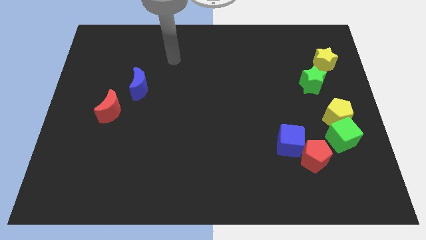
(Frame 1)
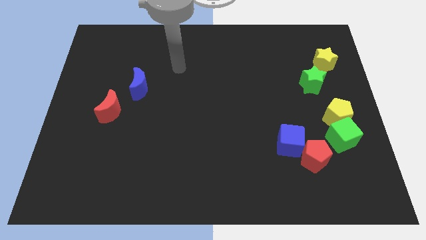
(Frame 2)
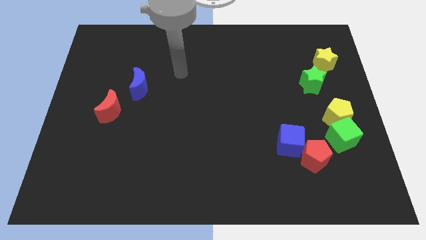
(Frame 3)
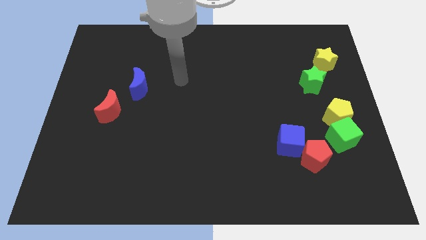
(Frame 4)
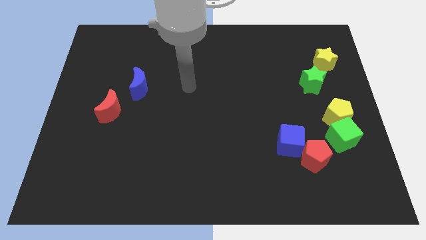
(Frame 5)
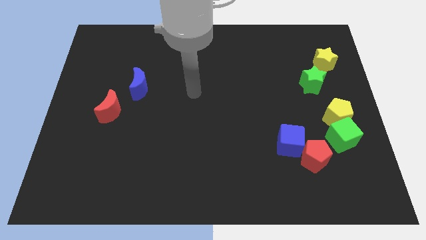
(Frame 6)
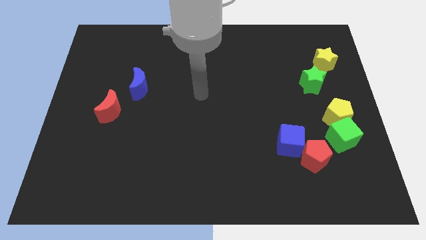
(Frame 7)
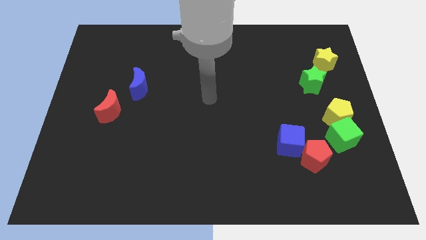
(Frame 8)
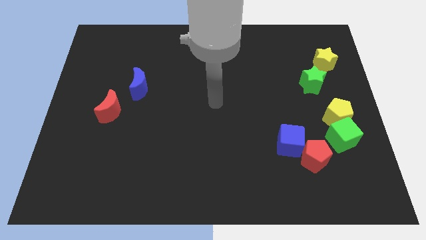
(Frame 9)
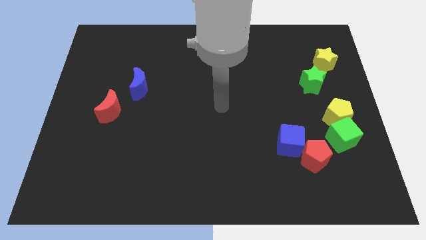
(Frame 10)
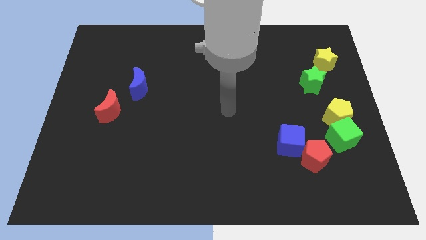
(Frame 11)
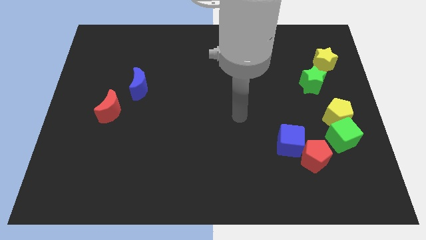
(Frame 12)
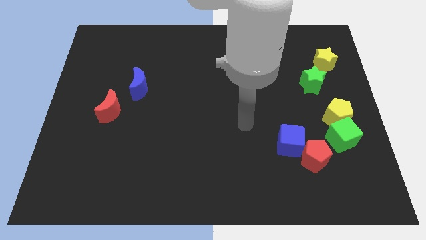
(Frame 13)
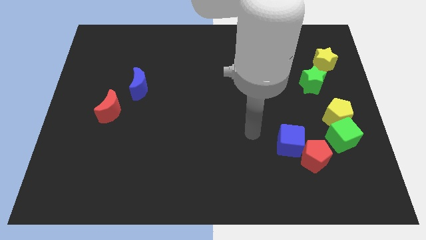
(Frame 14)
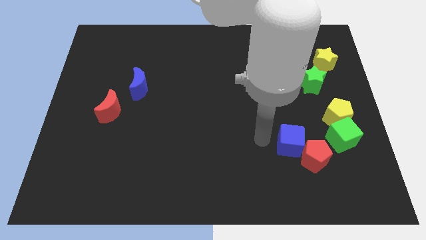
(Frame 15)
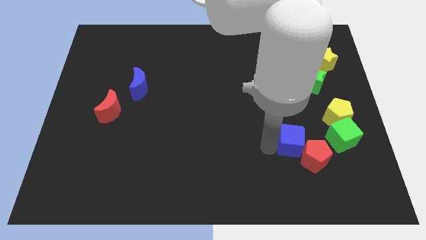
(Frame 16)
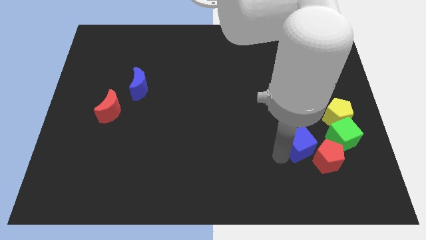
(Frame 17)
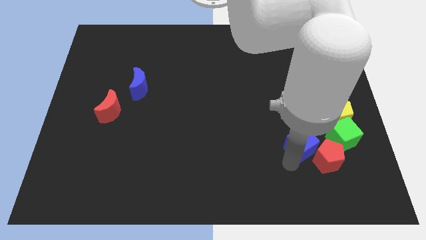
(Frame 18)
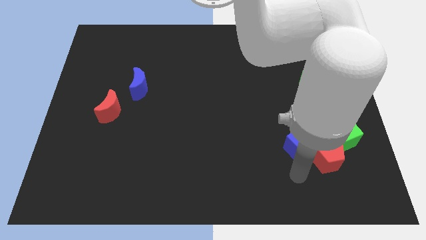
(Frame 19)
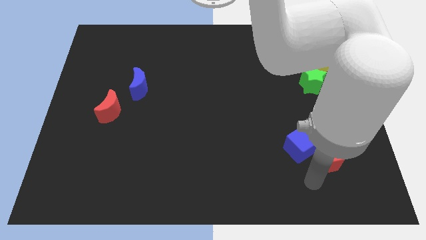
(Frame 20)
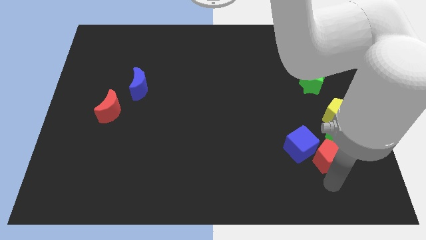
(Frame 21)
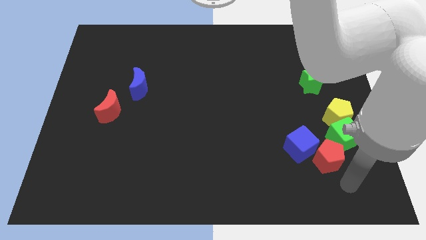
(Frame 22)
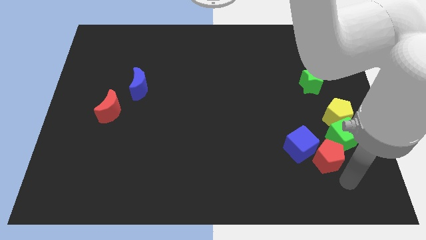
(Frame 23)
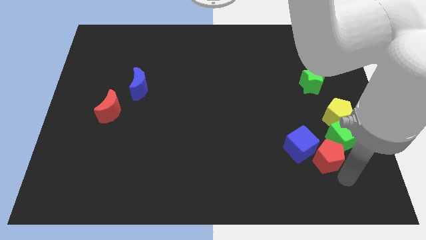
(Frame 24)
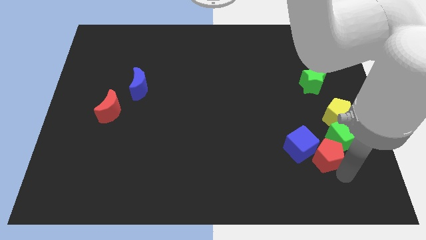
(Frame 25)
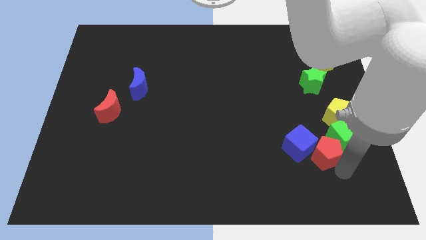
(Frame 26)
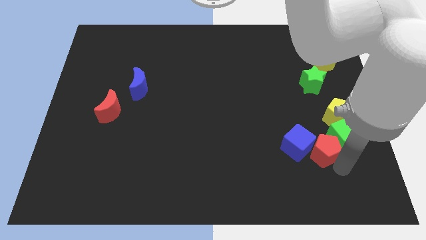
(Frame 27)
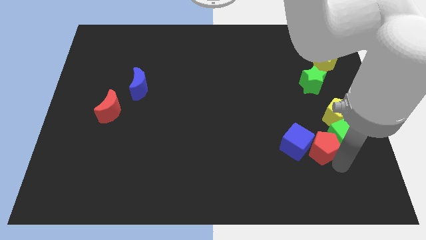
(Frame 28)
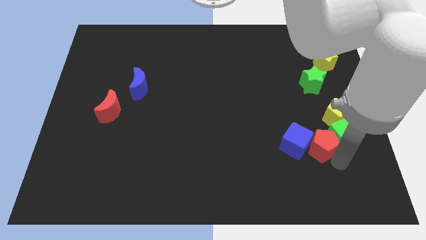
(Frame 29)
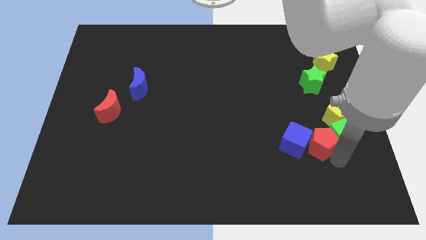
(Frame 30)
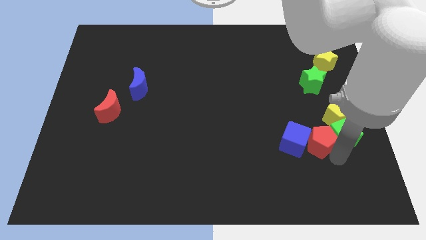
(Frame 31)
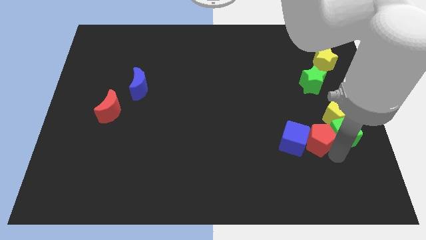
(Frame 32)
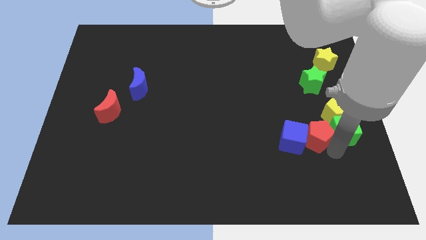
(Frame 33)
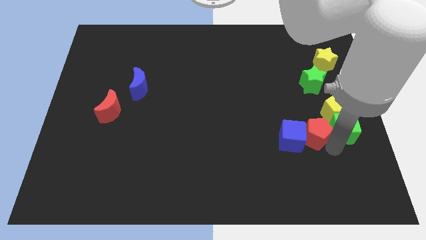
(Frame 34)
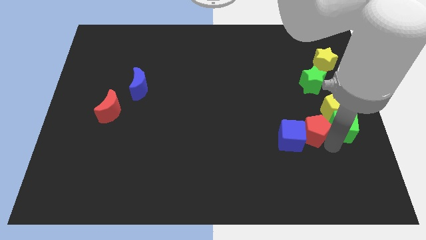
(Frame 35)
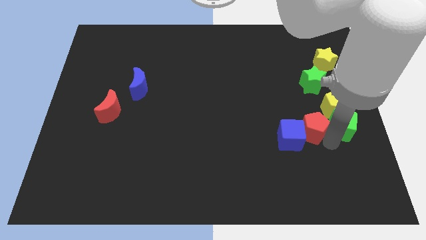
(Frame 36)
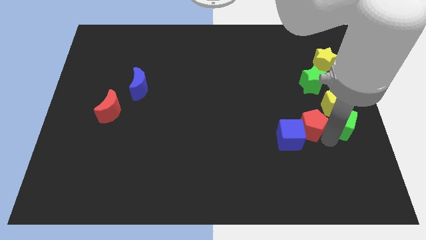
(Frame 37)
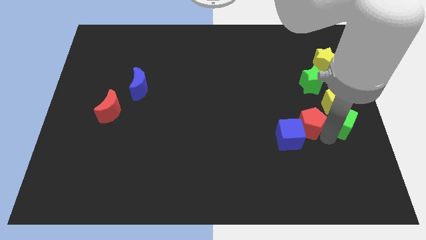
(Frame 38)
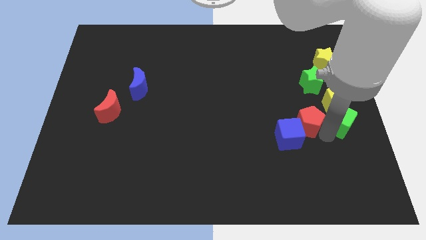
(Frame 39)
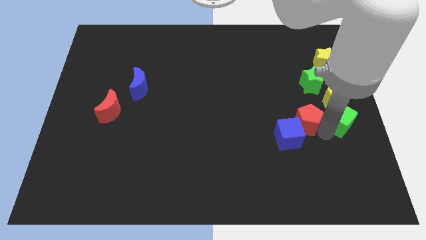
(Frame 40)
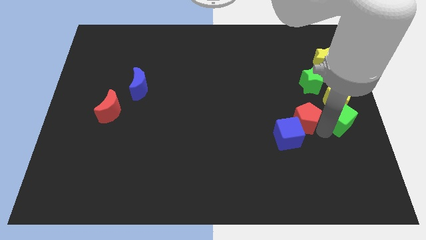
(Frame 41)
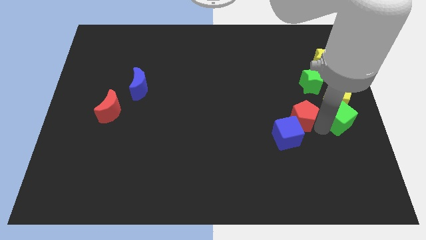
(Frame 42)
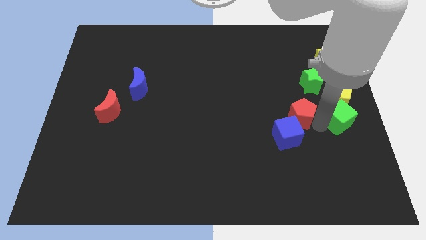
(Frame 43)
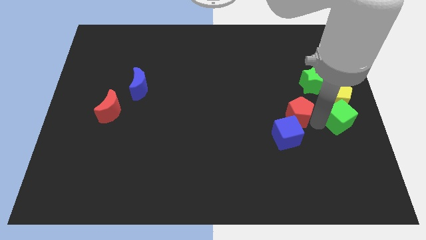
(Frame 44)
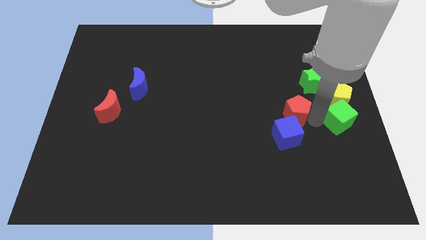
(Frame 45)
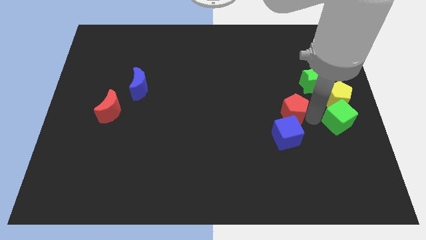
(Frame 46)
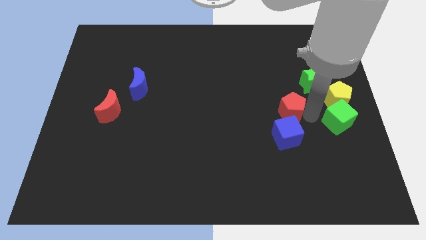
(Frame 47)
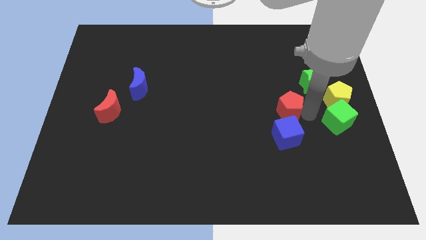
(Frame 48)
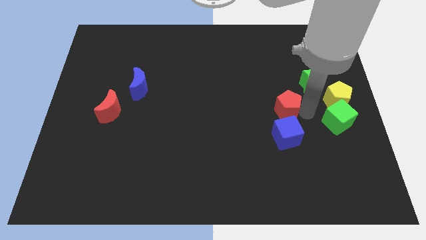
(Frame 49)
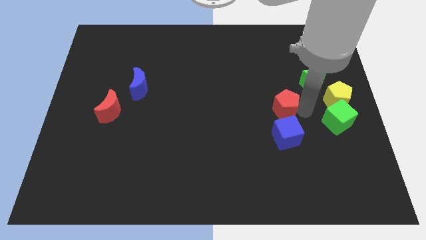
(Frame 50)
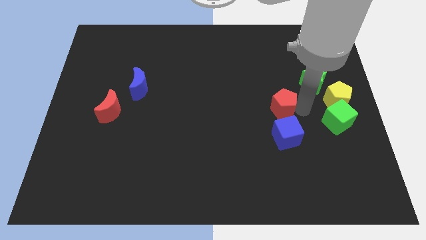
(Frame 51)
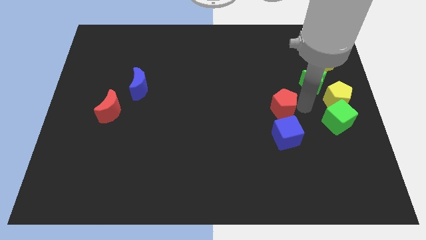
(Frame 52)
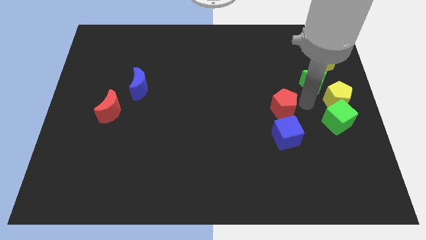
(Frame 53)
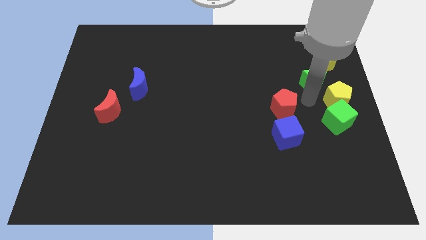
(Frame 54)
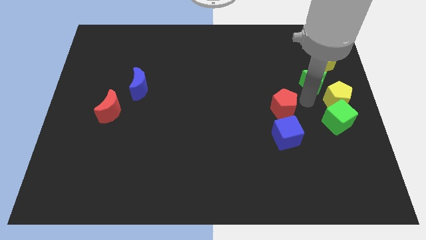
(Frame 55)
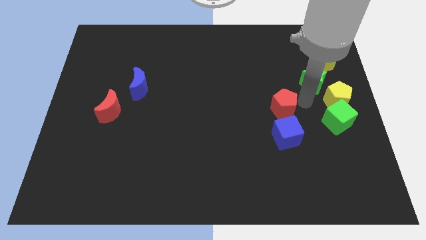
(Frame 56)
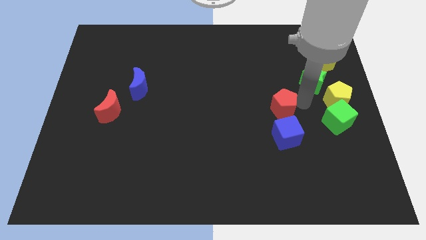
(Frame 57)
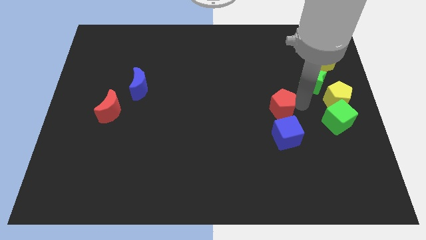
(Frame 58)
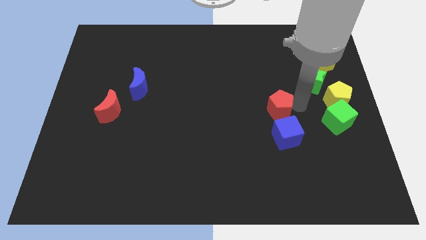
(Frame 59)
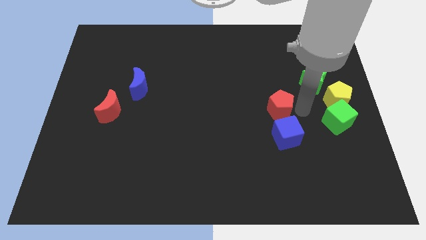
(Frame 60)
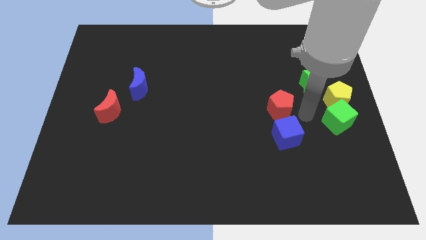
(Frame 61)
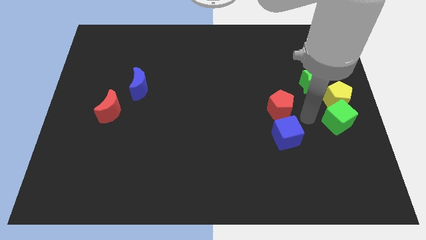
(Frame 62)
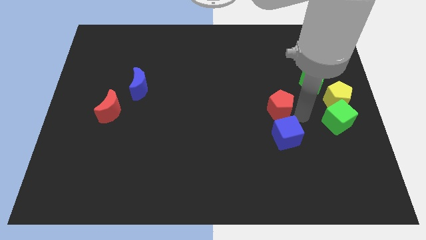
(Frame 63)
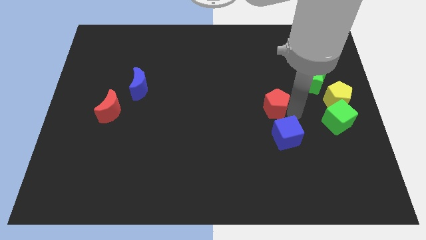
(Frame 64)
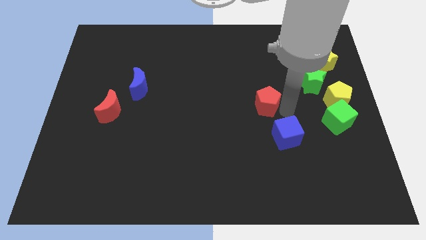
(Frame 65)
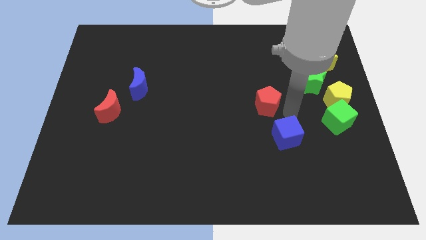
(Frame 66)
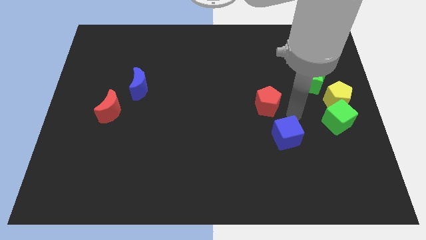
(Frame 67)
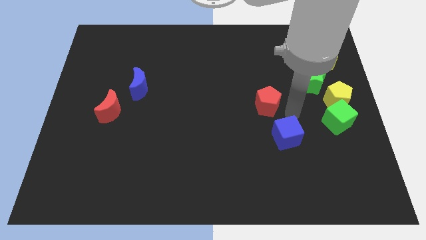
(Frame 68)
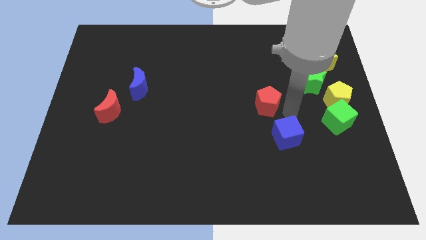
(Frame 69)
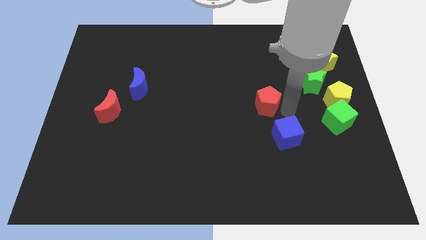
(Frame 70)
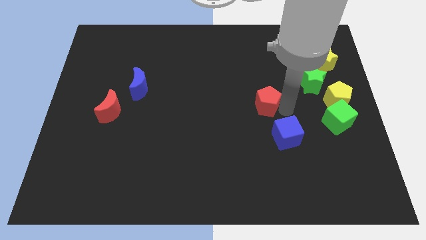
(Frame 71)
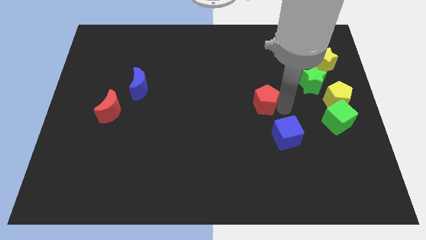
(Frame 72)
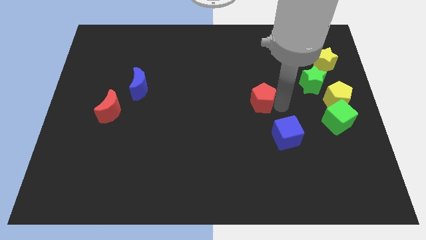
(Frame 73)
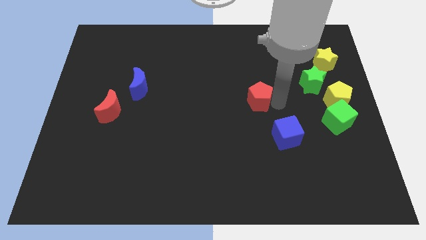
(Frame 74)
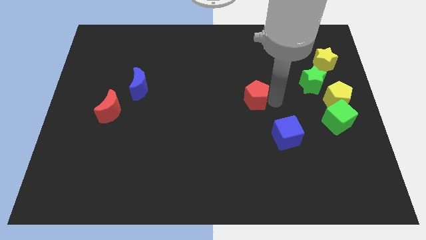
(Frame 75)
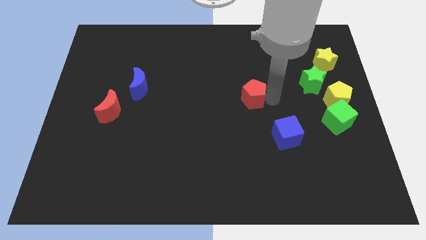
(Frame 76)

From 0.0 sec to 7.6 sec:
move the red pentagon upwards and then to the left

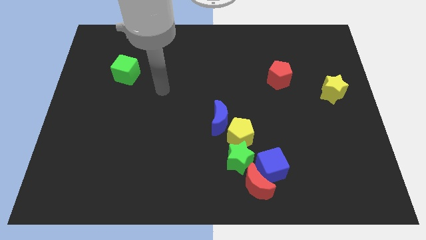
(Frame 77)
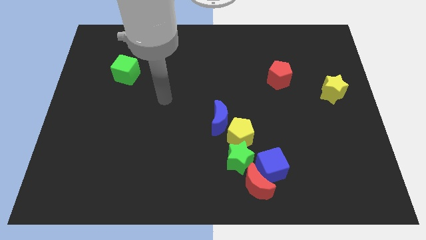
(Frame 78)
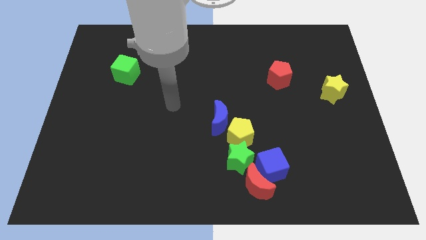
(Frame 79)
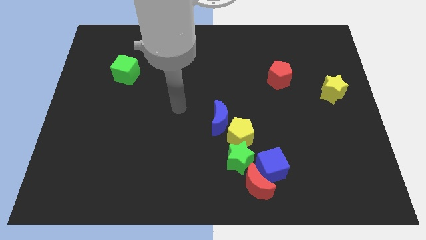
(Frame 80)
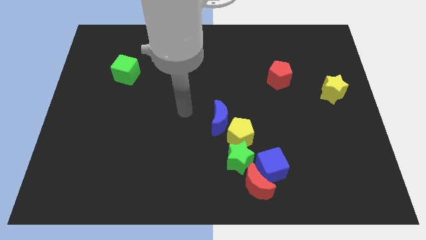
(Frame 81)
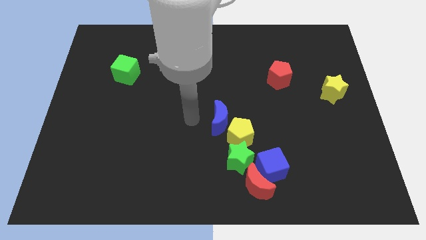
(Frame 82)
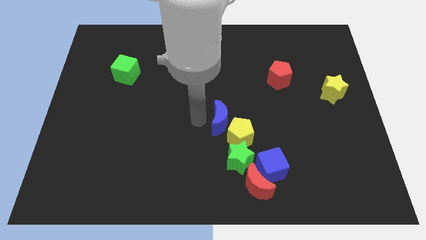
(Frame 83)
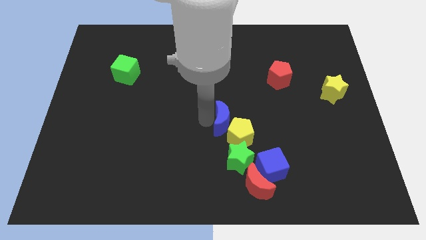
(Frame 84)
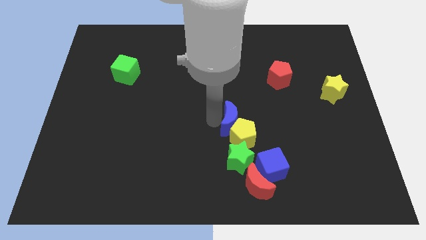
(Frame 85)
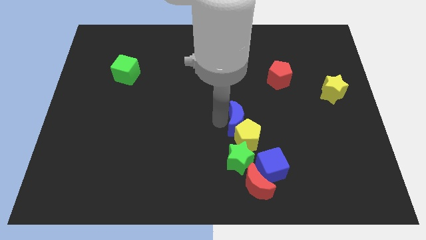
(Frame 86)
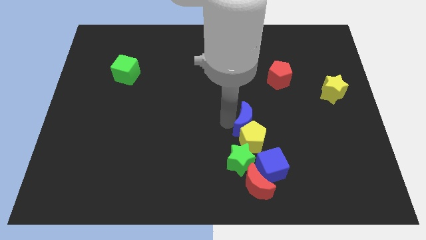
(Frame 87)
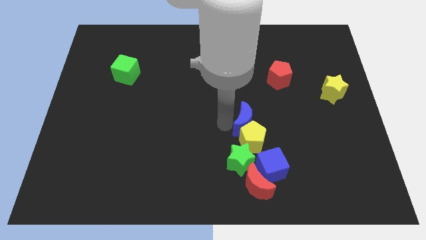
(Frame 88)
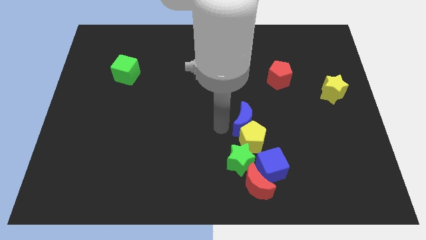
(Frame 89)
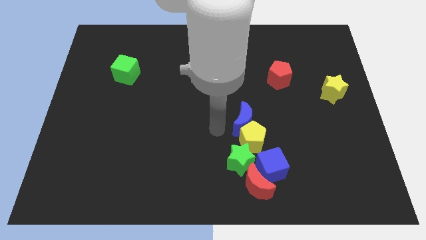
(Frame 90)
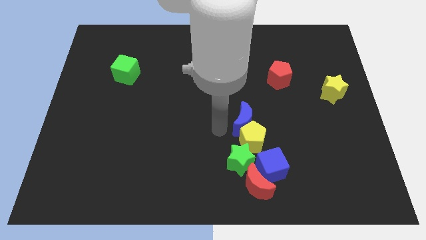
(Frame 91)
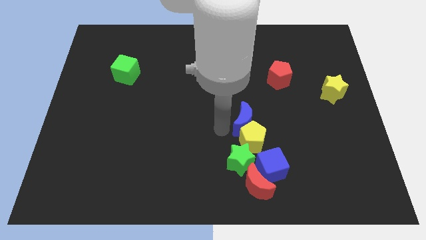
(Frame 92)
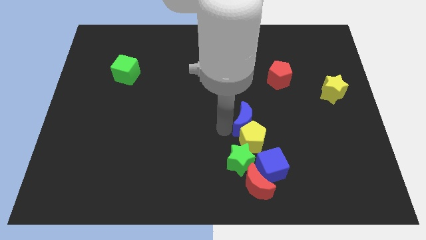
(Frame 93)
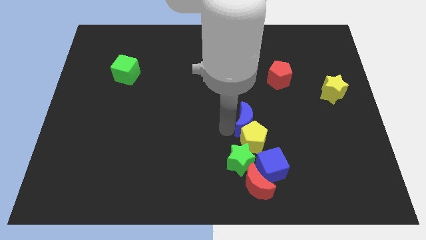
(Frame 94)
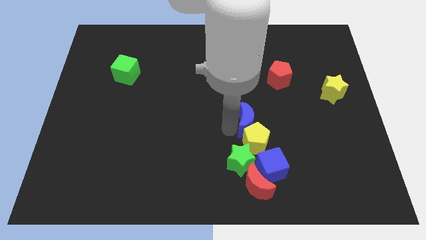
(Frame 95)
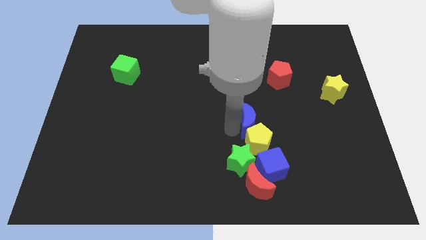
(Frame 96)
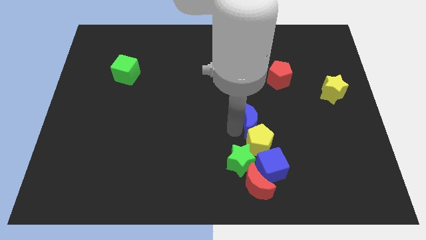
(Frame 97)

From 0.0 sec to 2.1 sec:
push the blue moon slightly right
